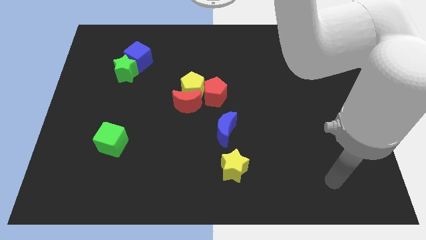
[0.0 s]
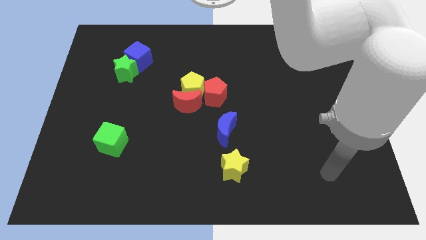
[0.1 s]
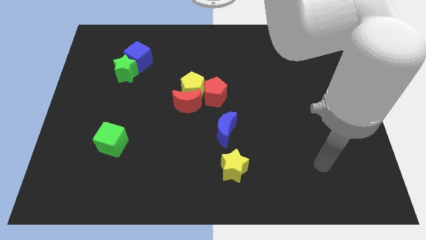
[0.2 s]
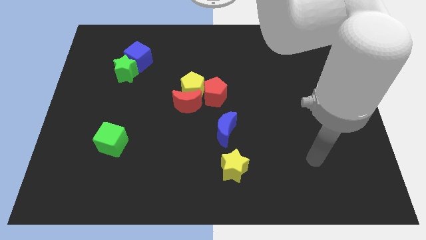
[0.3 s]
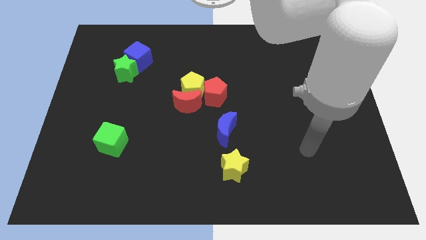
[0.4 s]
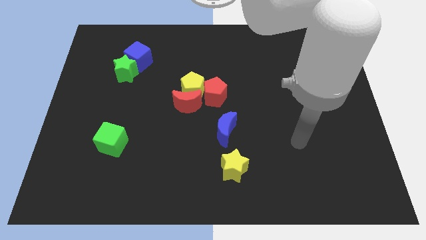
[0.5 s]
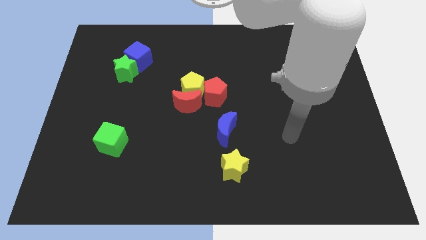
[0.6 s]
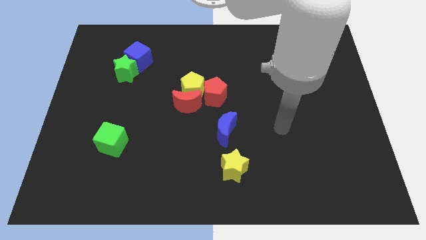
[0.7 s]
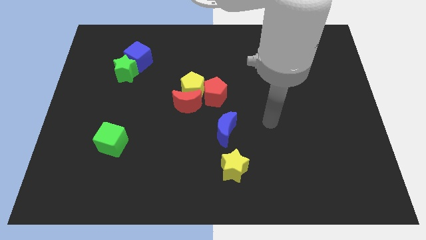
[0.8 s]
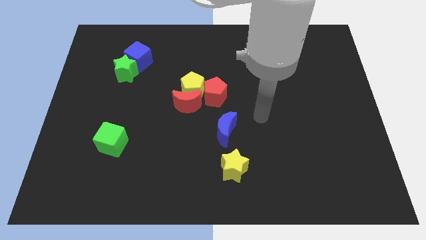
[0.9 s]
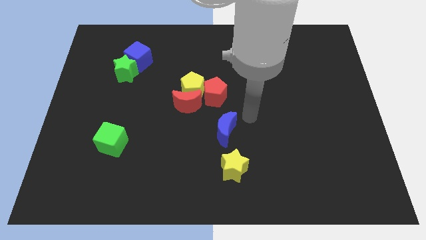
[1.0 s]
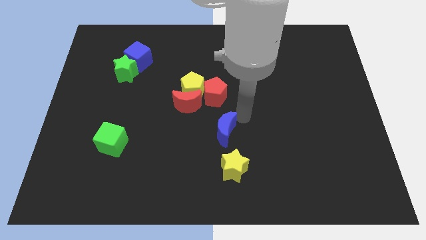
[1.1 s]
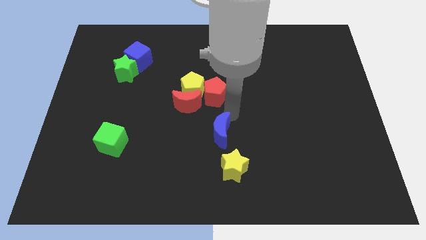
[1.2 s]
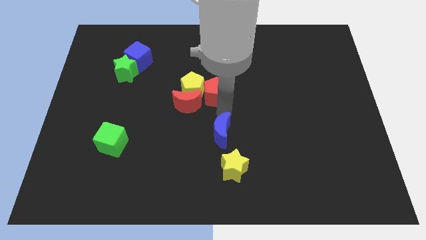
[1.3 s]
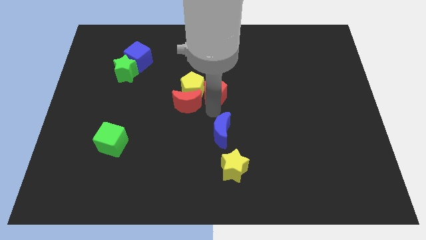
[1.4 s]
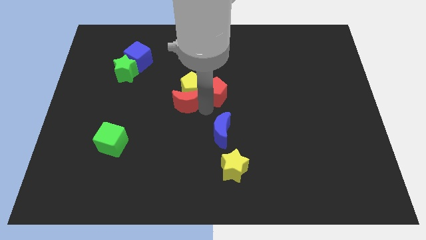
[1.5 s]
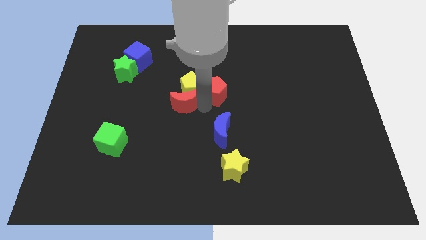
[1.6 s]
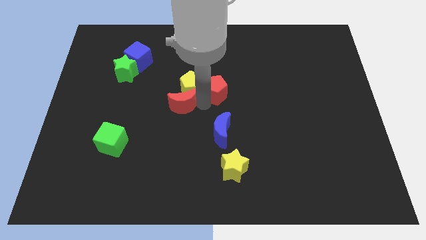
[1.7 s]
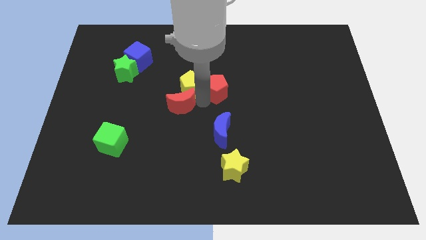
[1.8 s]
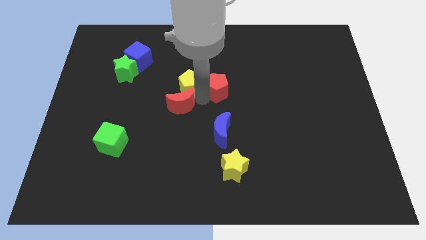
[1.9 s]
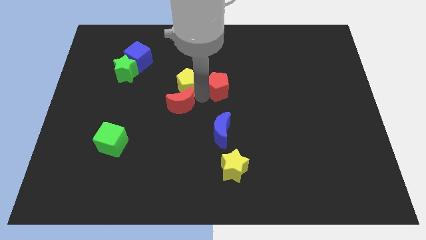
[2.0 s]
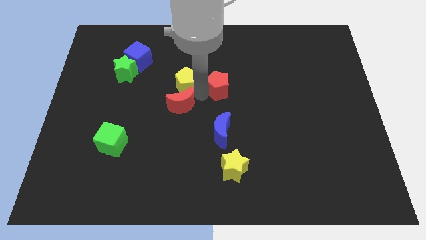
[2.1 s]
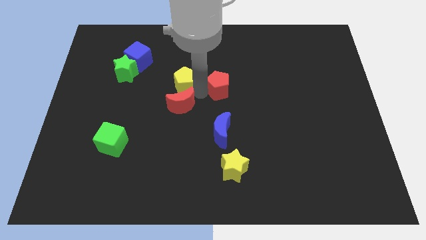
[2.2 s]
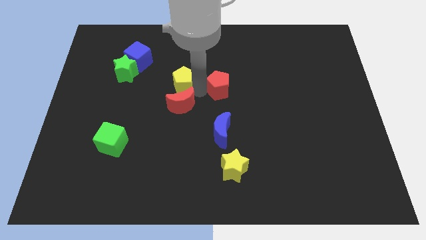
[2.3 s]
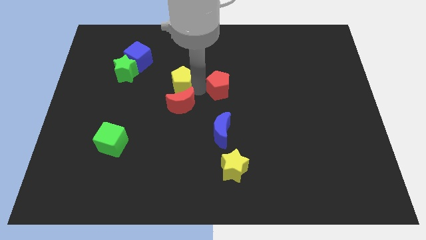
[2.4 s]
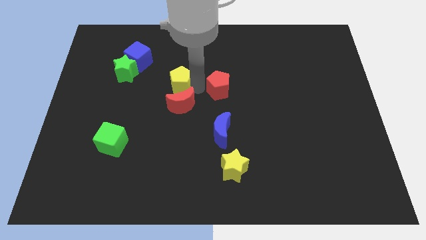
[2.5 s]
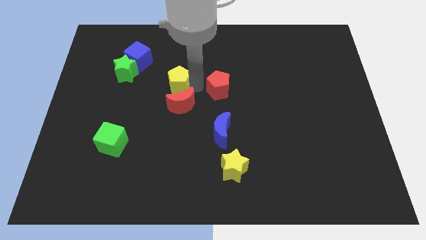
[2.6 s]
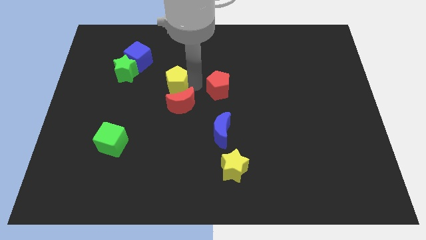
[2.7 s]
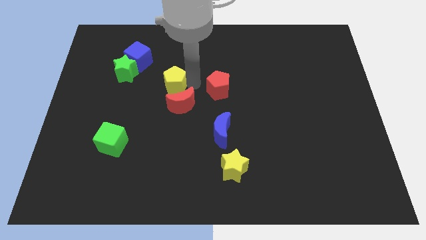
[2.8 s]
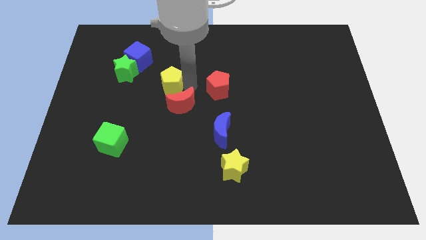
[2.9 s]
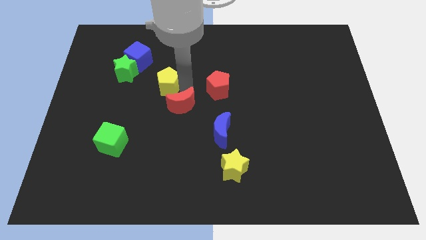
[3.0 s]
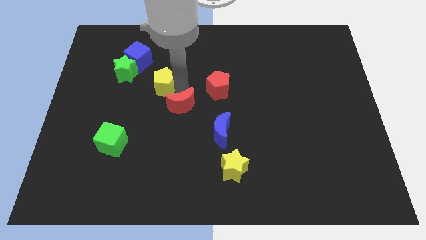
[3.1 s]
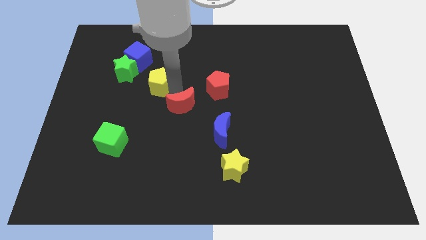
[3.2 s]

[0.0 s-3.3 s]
pull the yellow pentagon apart from the red moon and red pentagon

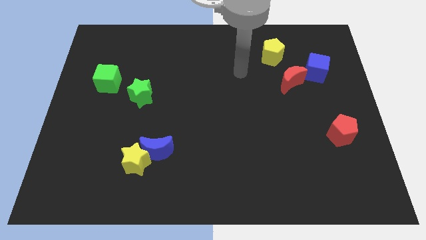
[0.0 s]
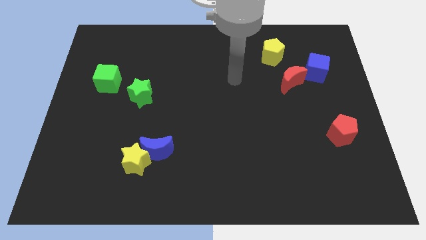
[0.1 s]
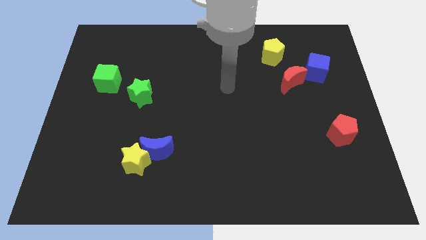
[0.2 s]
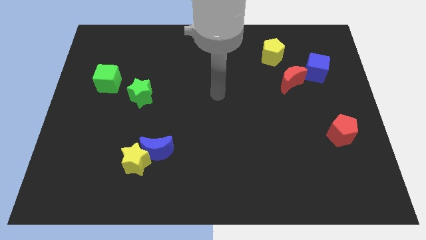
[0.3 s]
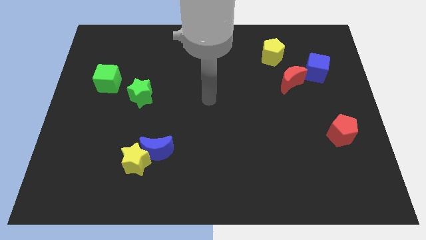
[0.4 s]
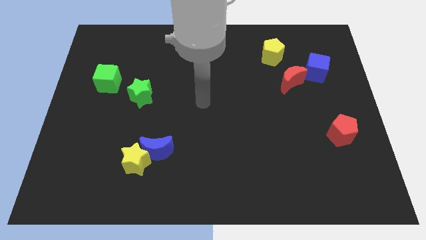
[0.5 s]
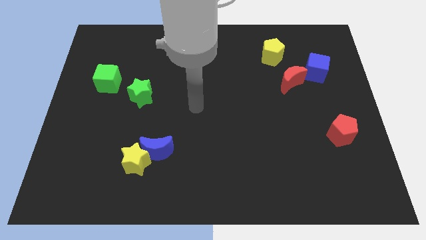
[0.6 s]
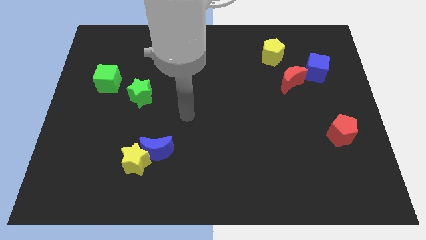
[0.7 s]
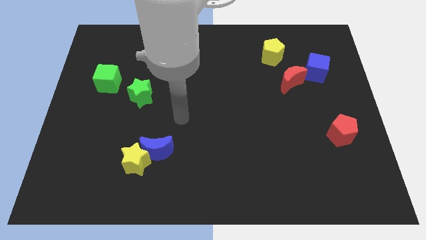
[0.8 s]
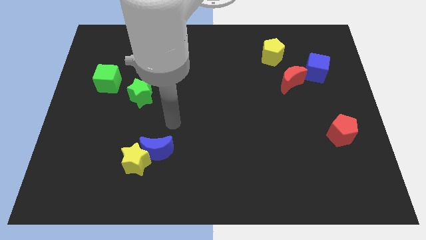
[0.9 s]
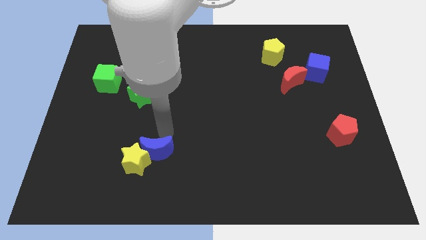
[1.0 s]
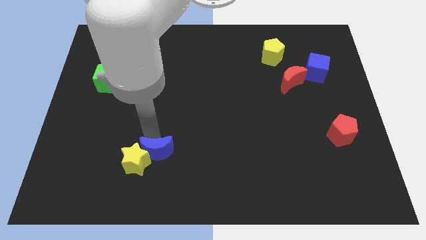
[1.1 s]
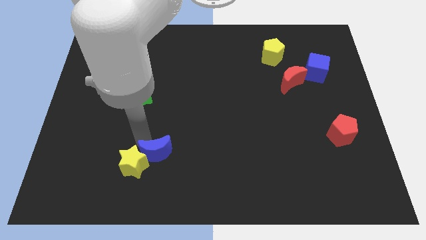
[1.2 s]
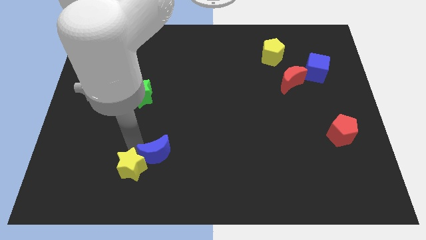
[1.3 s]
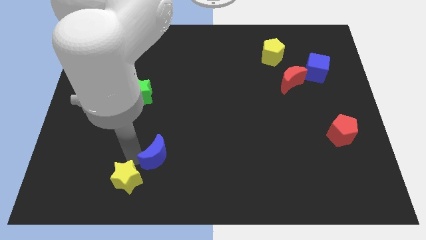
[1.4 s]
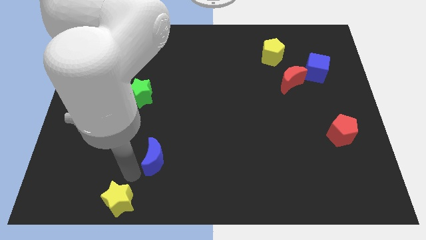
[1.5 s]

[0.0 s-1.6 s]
move the blue moon away from the yellow star

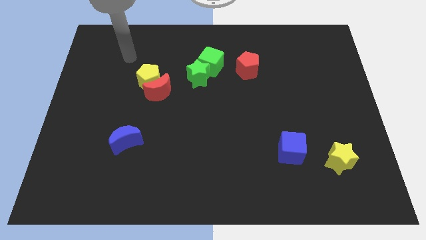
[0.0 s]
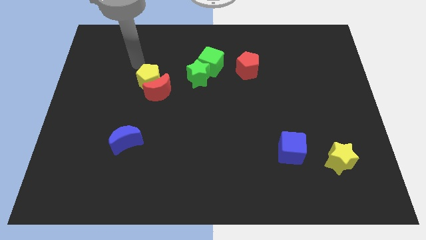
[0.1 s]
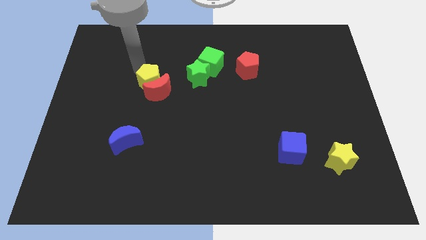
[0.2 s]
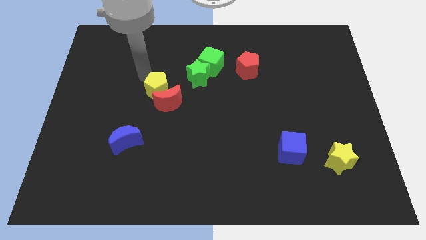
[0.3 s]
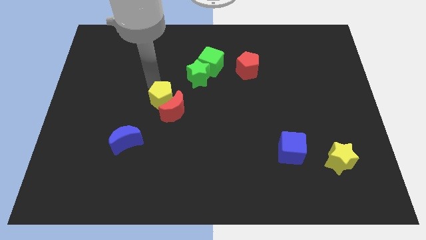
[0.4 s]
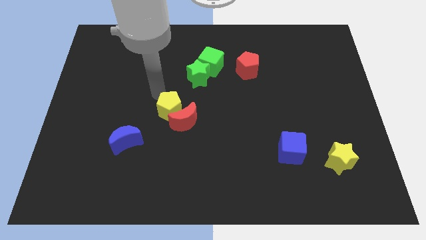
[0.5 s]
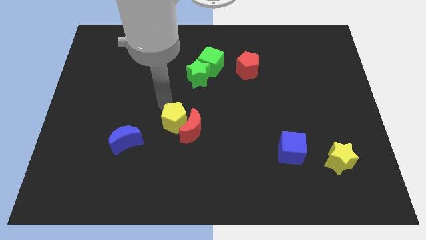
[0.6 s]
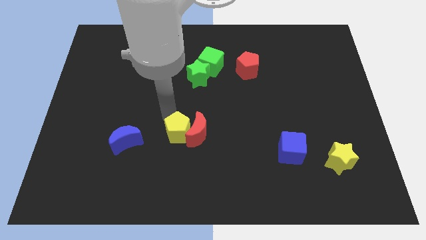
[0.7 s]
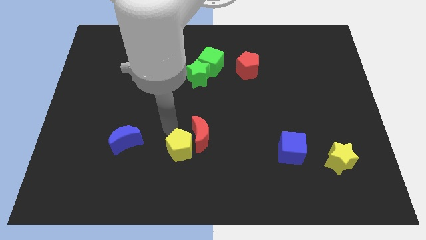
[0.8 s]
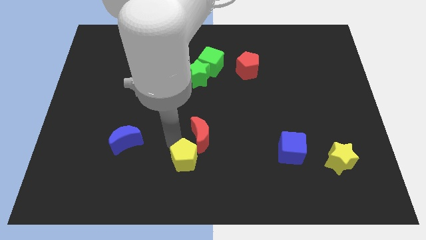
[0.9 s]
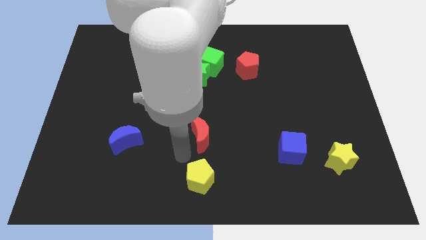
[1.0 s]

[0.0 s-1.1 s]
separate the red moon from the yellow pentagon

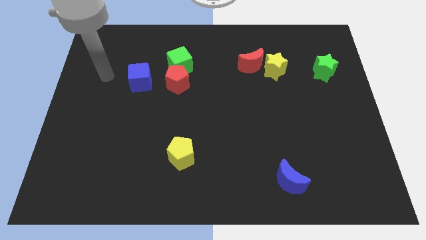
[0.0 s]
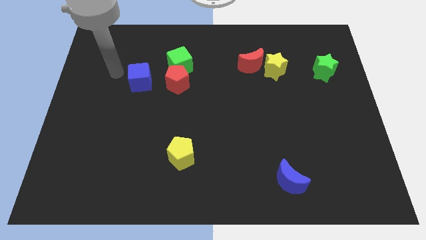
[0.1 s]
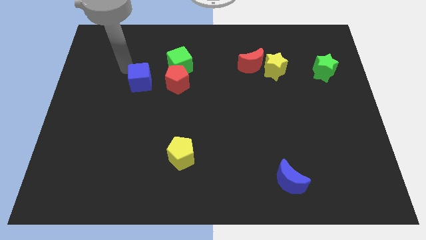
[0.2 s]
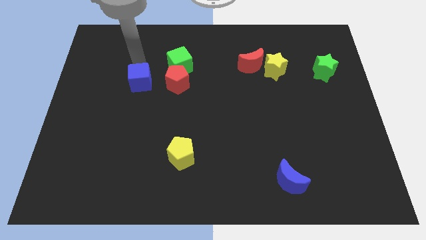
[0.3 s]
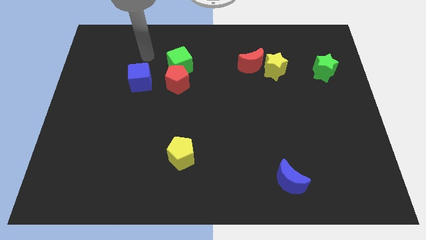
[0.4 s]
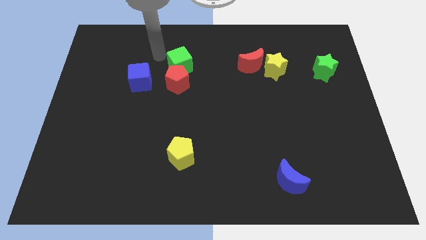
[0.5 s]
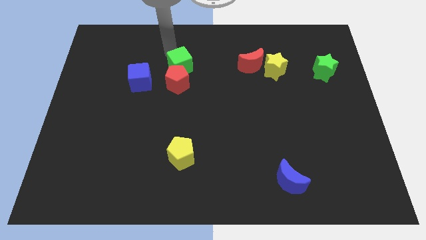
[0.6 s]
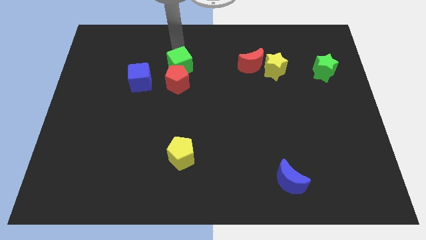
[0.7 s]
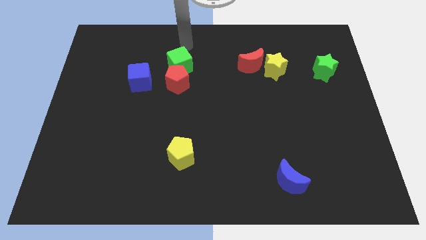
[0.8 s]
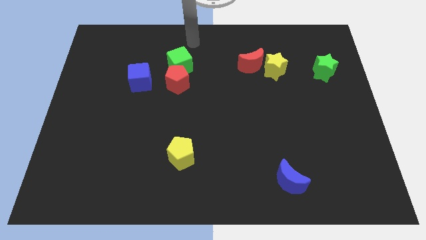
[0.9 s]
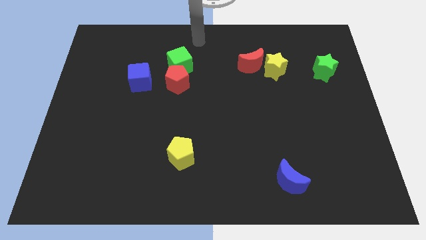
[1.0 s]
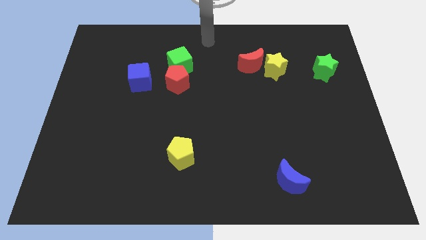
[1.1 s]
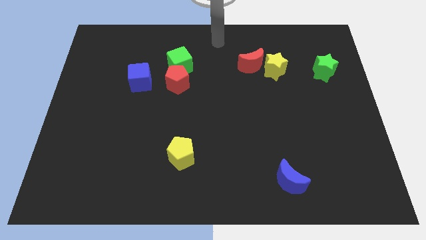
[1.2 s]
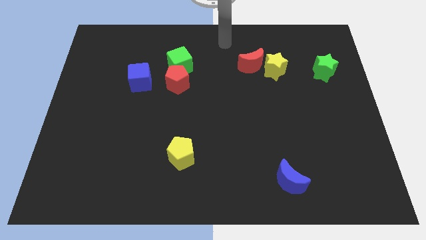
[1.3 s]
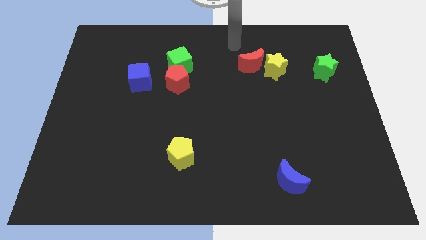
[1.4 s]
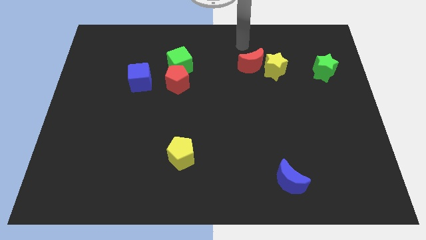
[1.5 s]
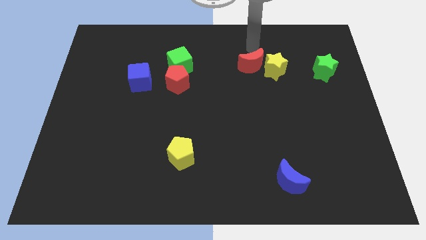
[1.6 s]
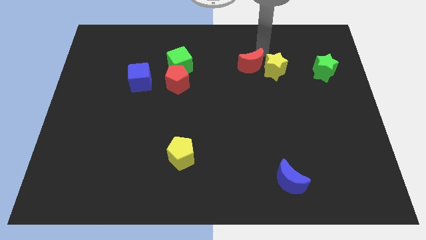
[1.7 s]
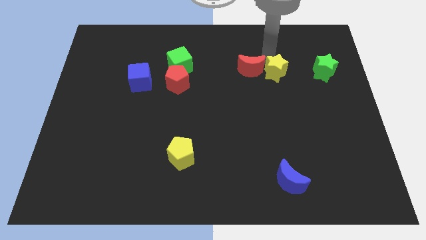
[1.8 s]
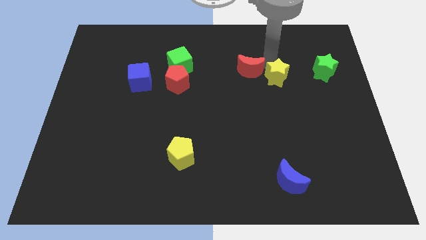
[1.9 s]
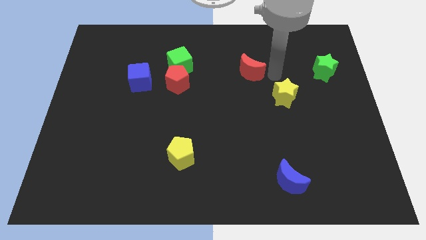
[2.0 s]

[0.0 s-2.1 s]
pull the red moon apart from the yellow star

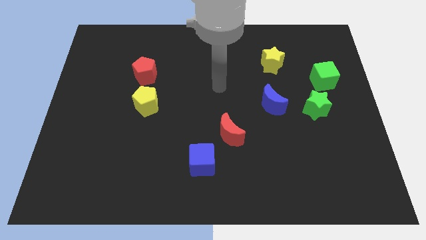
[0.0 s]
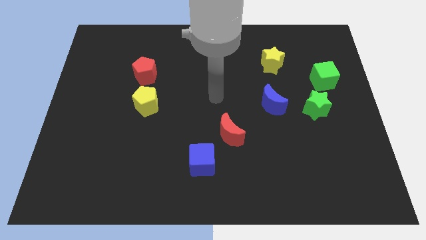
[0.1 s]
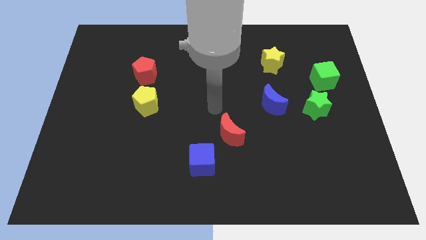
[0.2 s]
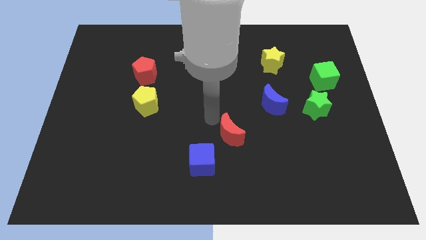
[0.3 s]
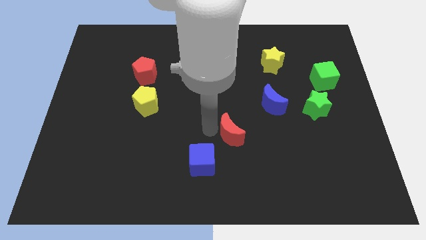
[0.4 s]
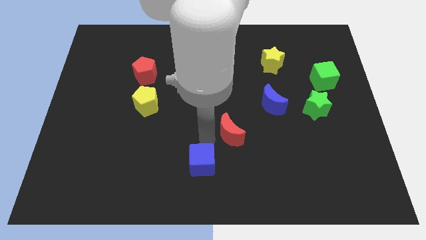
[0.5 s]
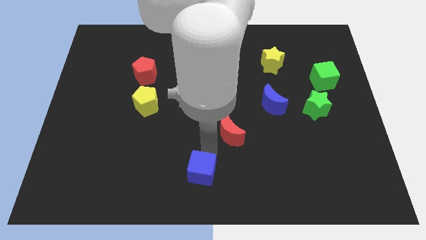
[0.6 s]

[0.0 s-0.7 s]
separate the red moon from the blue cube

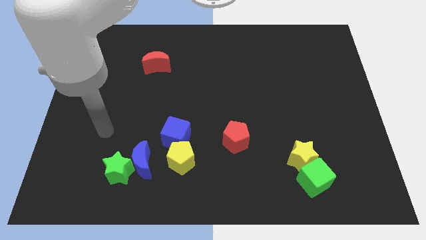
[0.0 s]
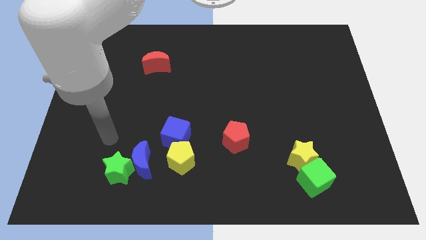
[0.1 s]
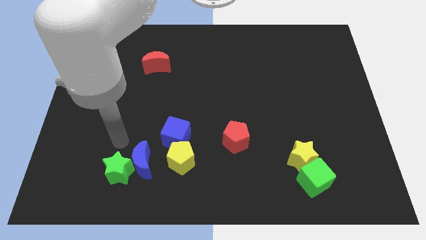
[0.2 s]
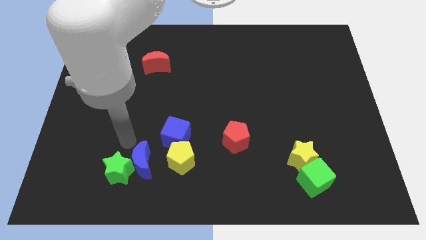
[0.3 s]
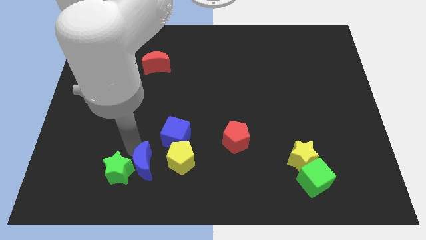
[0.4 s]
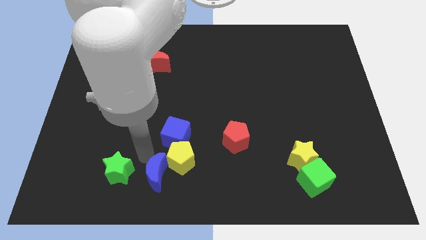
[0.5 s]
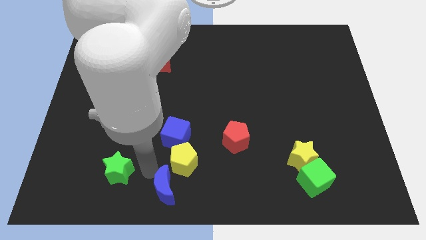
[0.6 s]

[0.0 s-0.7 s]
separate the green star from the blue moon
